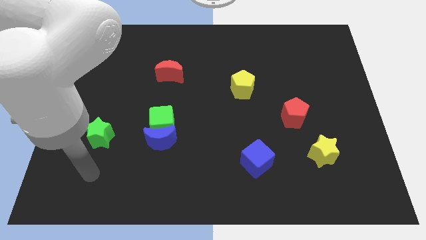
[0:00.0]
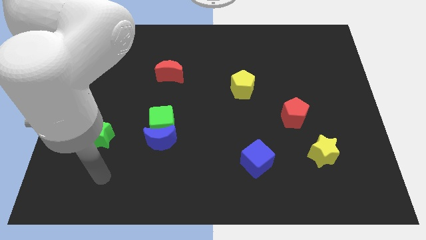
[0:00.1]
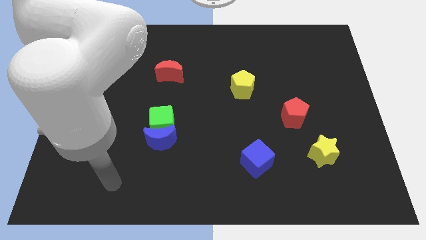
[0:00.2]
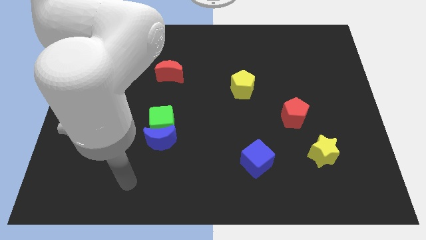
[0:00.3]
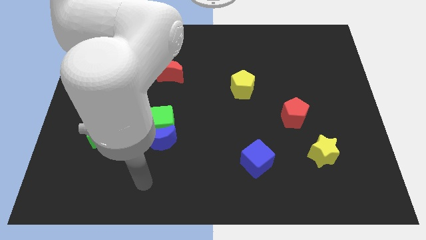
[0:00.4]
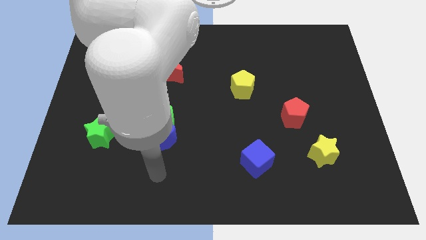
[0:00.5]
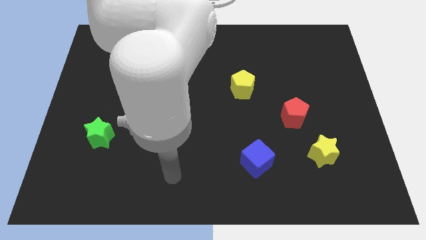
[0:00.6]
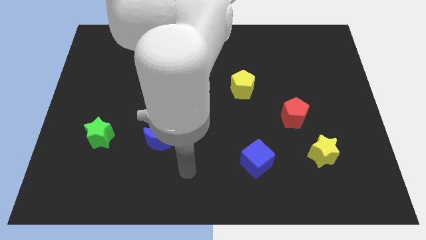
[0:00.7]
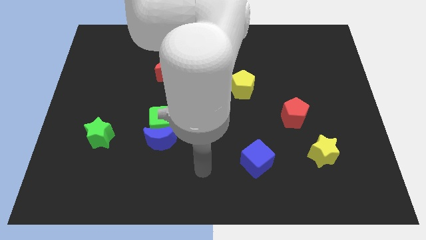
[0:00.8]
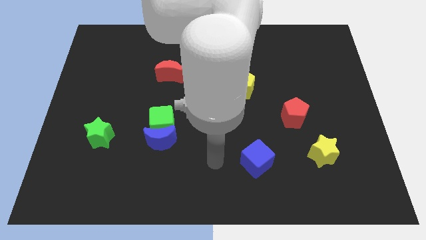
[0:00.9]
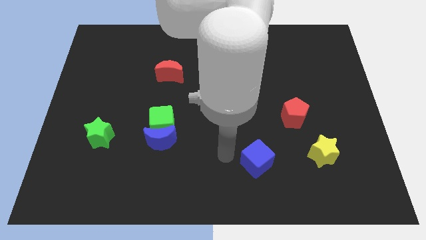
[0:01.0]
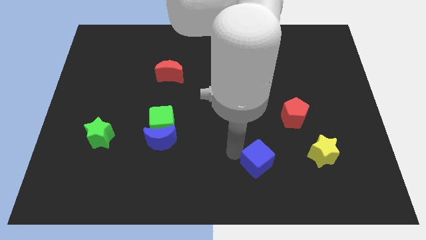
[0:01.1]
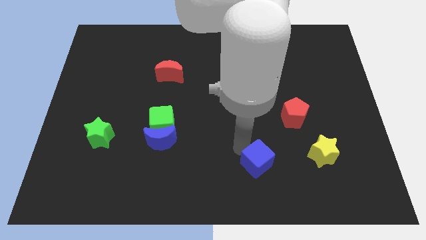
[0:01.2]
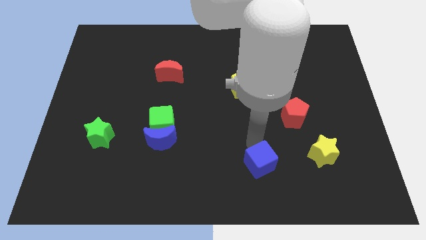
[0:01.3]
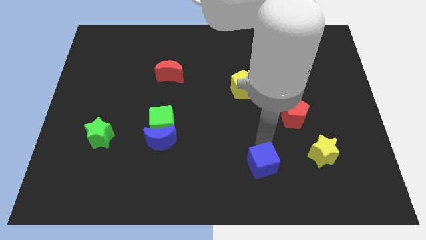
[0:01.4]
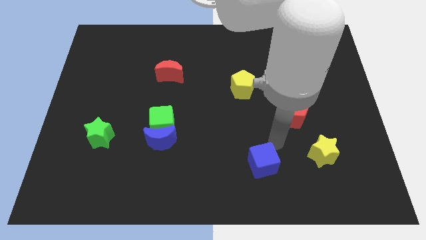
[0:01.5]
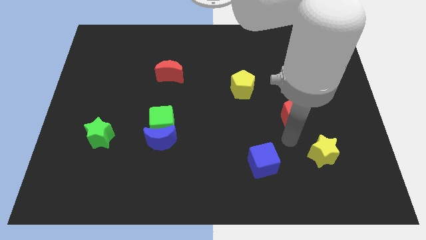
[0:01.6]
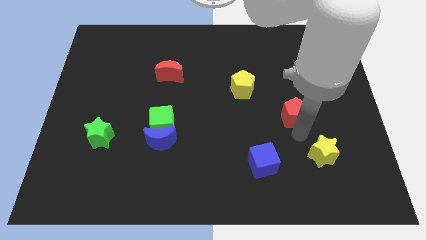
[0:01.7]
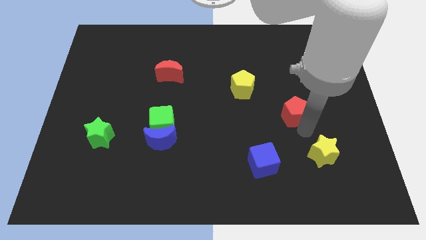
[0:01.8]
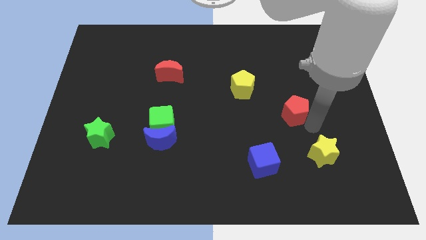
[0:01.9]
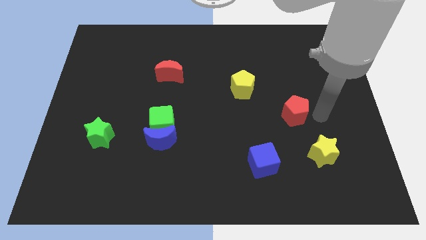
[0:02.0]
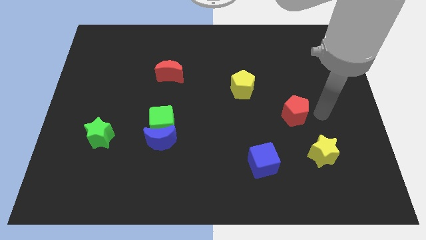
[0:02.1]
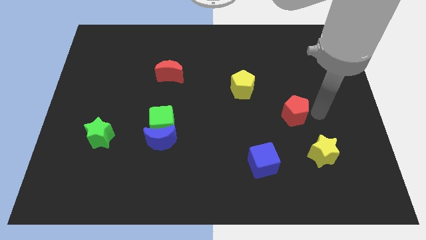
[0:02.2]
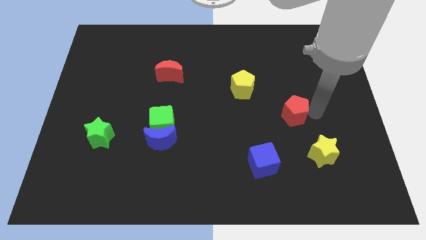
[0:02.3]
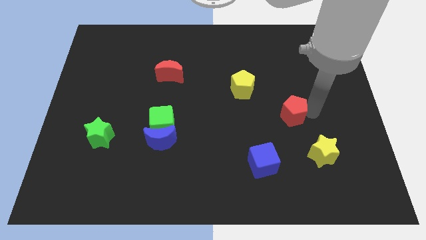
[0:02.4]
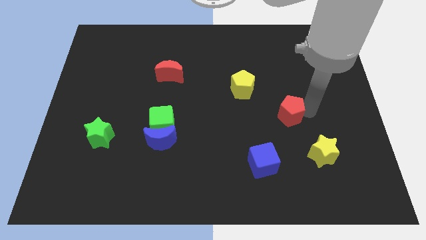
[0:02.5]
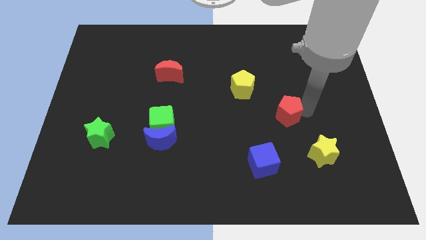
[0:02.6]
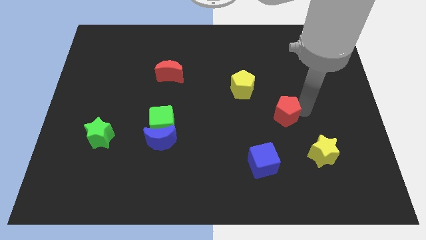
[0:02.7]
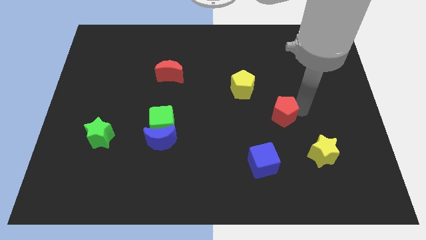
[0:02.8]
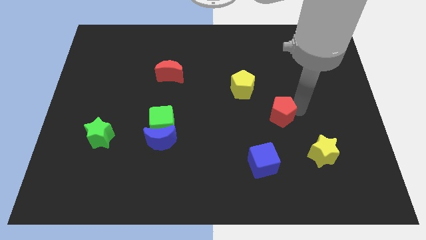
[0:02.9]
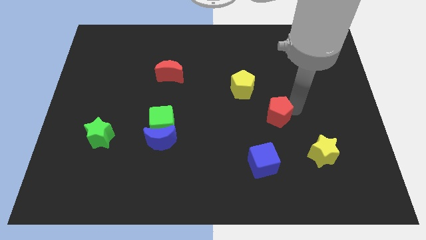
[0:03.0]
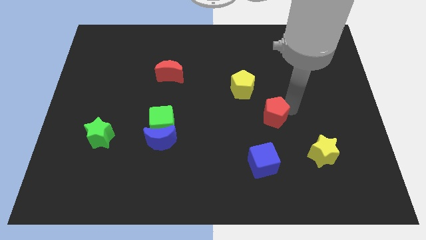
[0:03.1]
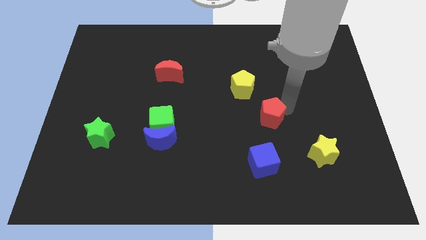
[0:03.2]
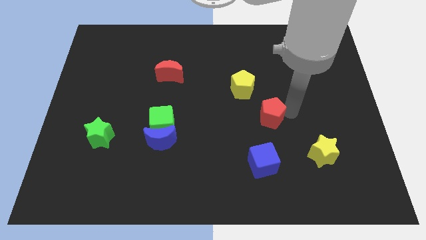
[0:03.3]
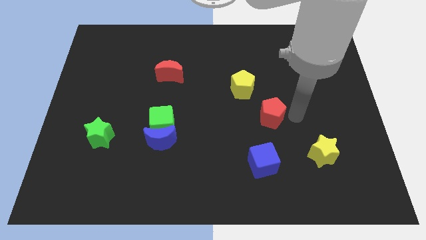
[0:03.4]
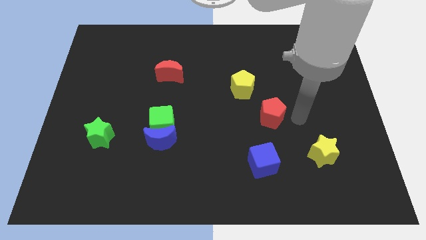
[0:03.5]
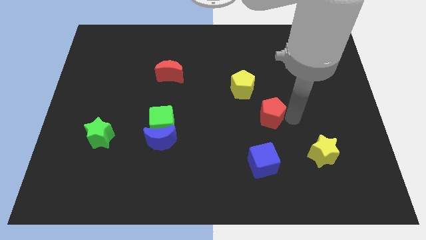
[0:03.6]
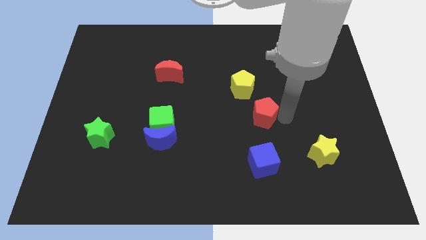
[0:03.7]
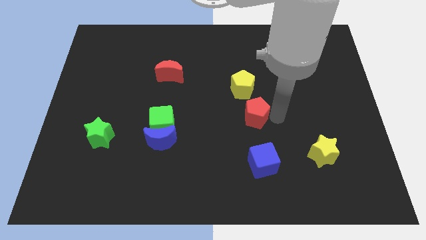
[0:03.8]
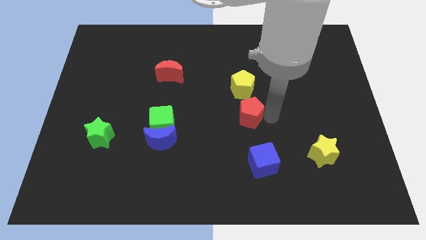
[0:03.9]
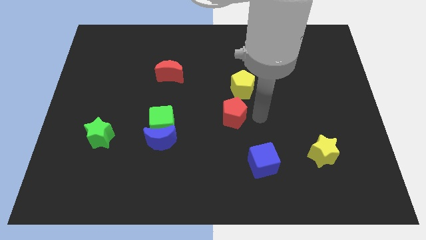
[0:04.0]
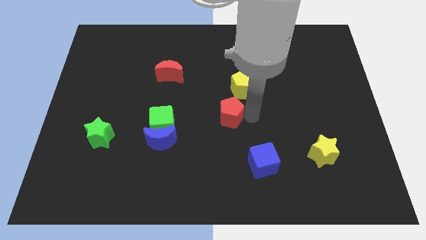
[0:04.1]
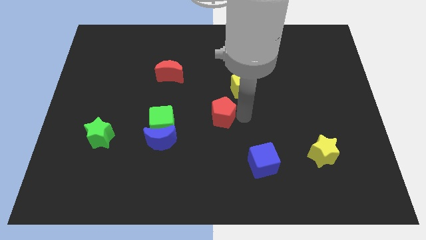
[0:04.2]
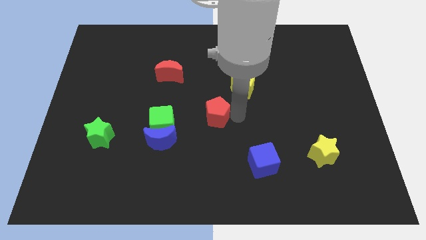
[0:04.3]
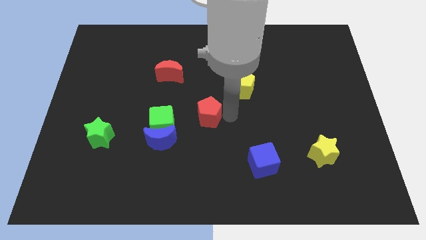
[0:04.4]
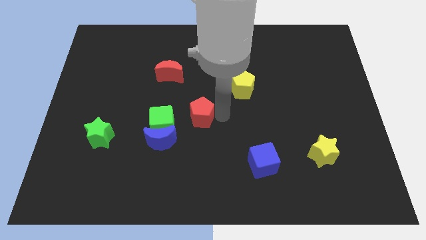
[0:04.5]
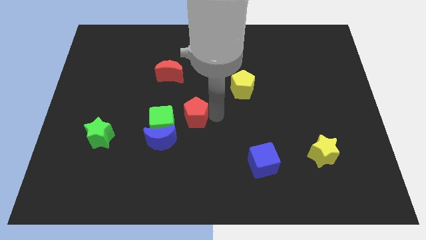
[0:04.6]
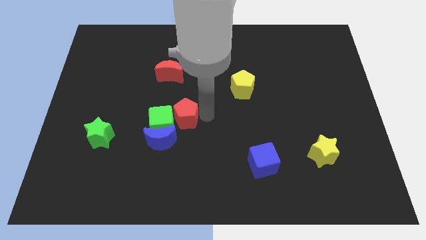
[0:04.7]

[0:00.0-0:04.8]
put the red pentagon to the green cube

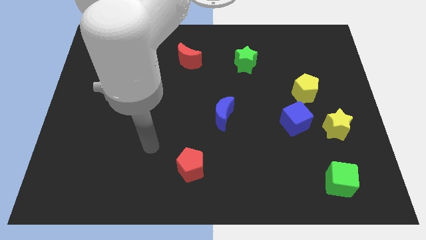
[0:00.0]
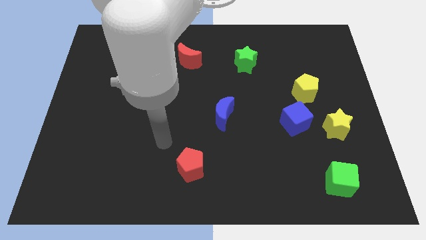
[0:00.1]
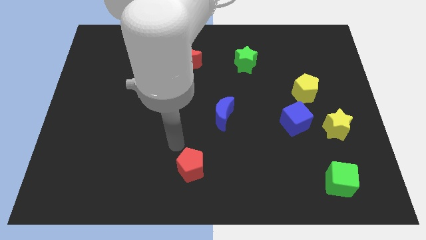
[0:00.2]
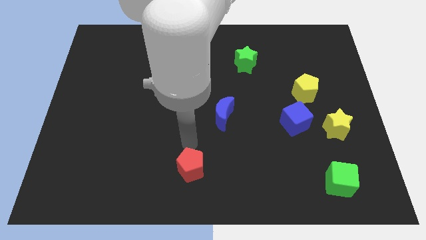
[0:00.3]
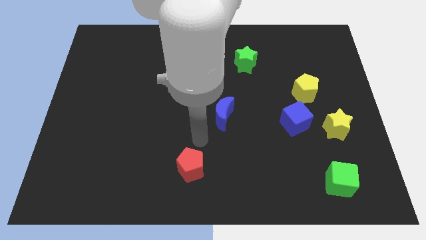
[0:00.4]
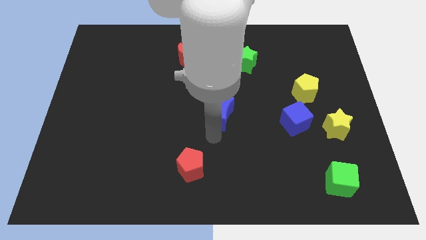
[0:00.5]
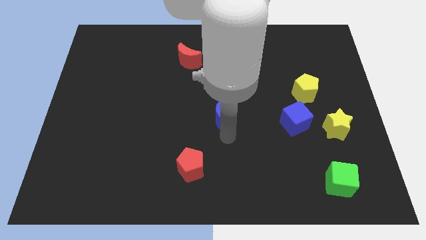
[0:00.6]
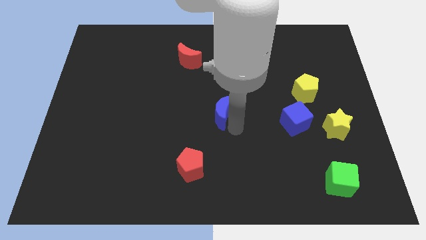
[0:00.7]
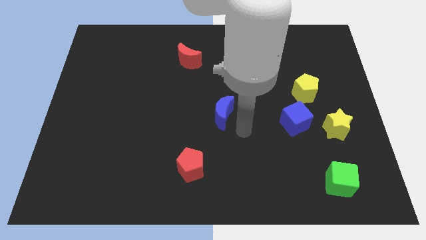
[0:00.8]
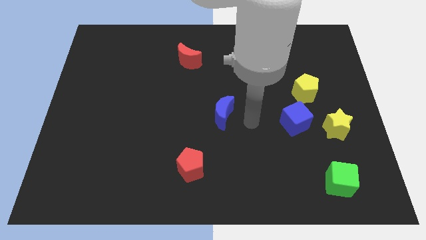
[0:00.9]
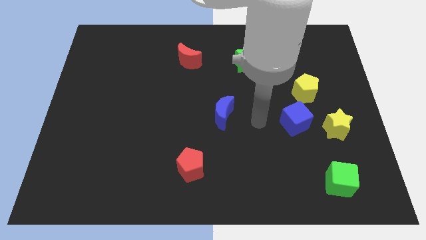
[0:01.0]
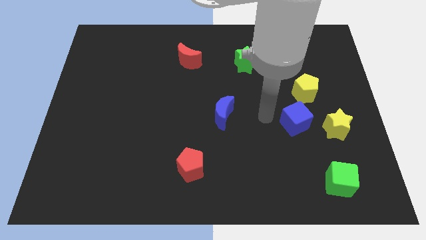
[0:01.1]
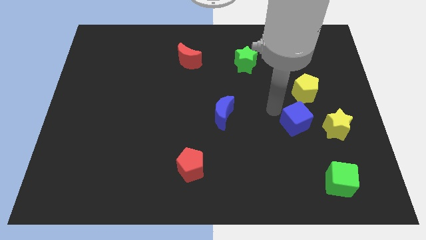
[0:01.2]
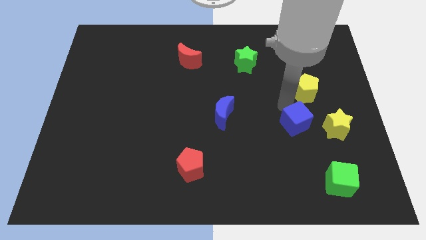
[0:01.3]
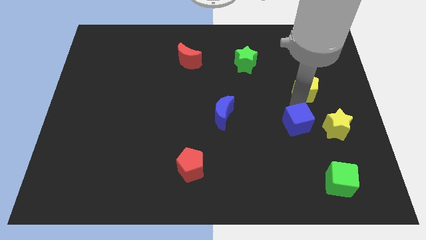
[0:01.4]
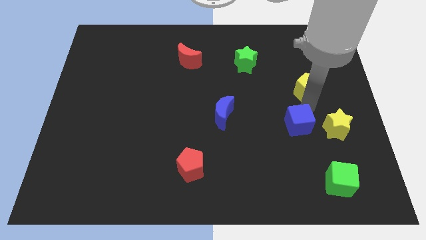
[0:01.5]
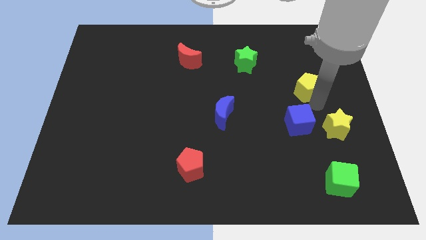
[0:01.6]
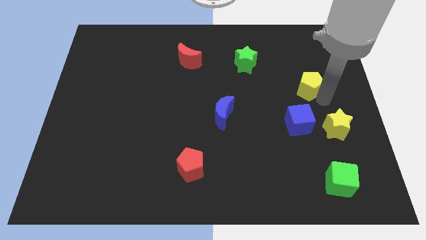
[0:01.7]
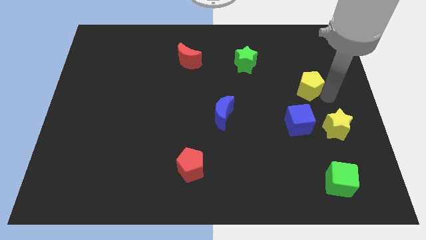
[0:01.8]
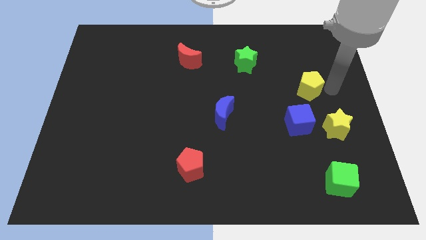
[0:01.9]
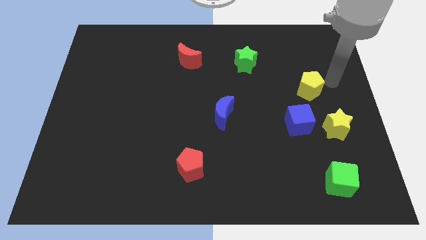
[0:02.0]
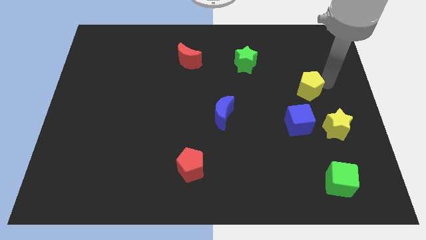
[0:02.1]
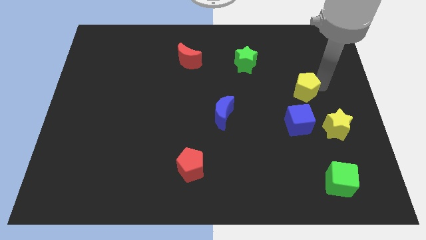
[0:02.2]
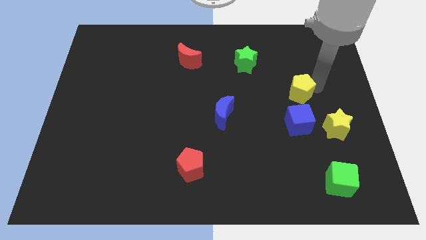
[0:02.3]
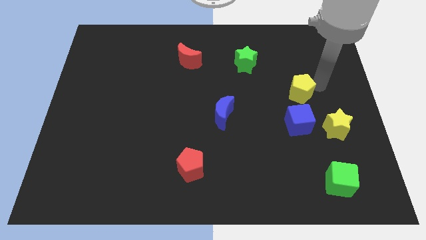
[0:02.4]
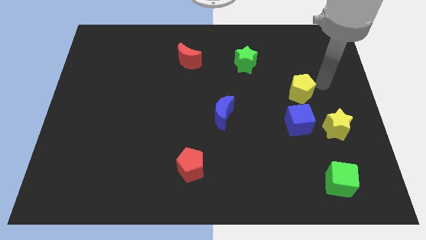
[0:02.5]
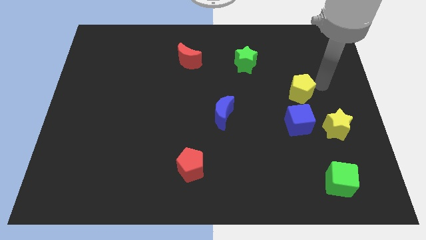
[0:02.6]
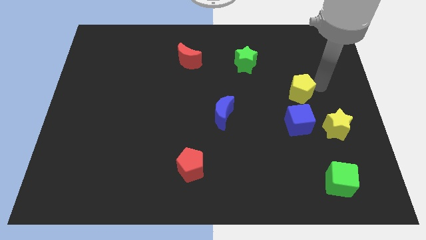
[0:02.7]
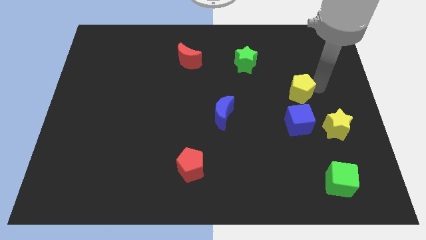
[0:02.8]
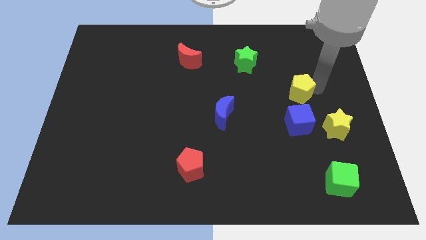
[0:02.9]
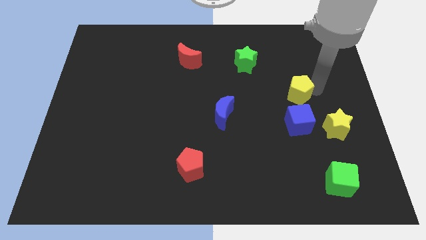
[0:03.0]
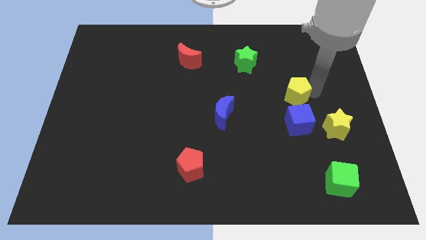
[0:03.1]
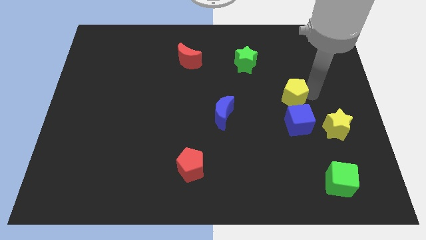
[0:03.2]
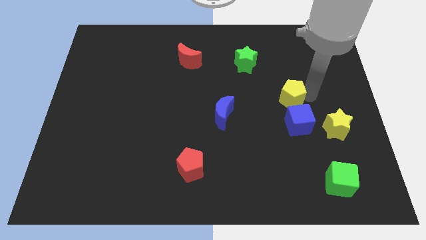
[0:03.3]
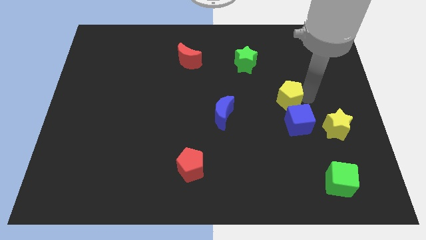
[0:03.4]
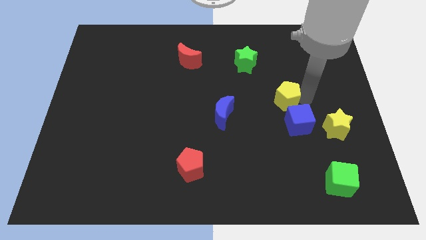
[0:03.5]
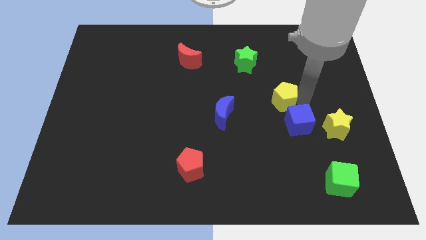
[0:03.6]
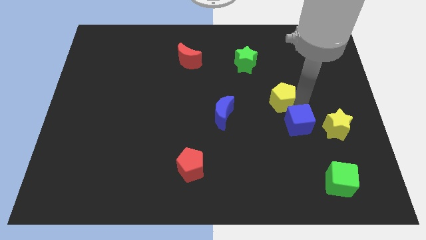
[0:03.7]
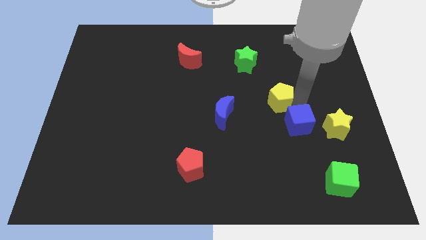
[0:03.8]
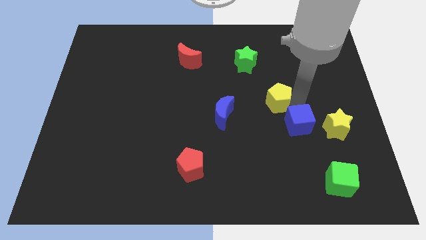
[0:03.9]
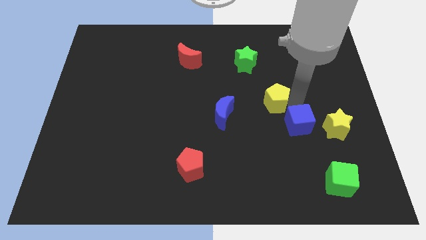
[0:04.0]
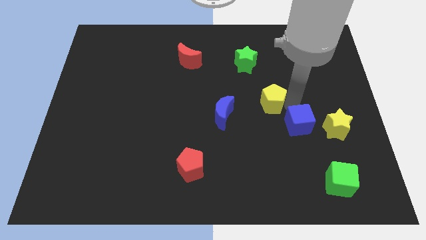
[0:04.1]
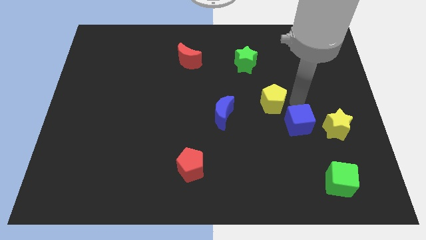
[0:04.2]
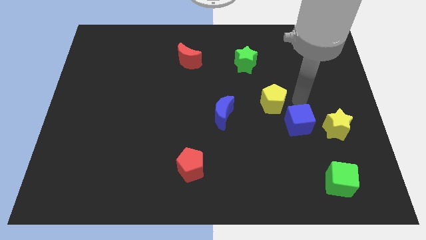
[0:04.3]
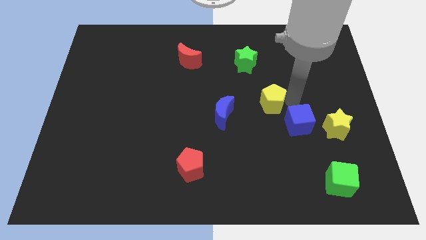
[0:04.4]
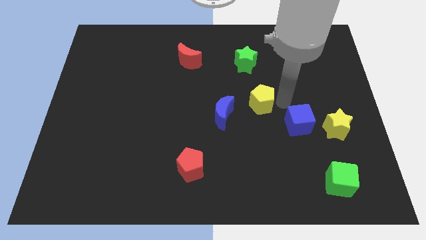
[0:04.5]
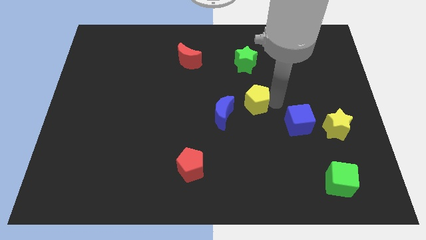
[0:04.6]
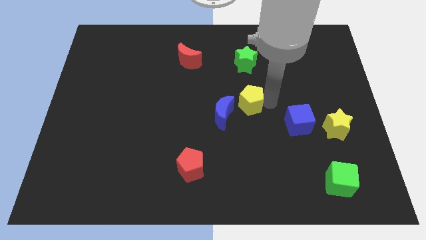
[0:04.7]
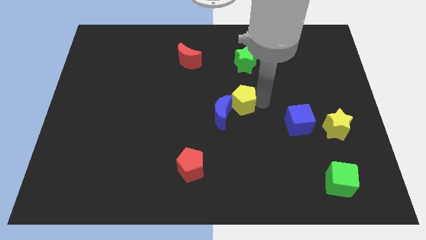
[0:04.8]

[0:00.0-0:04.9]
put the yellow pentagon towards the blue moon
